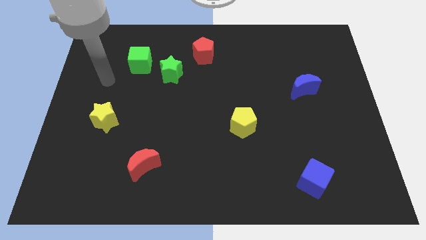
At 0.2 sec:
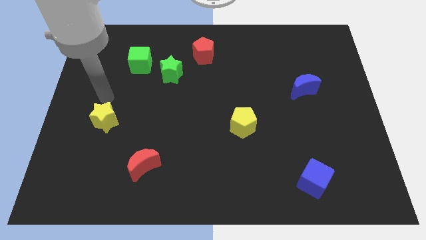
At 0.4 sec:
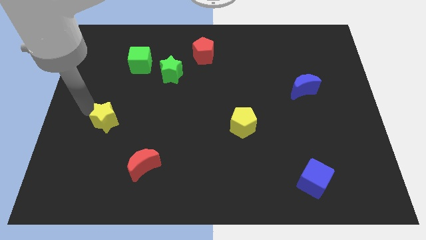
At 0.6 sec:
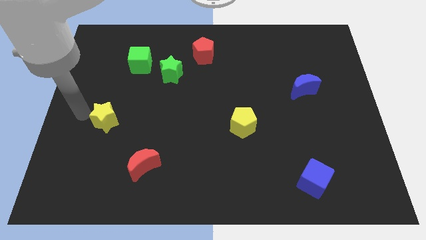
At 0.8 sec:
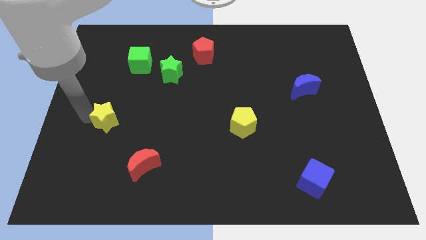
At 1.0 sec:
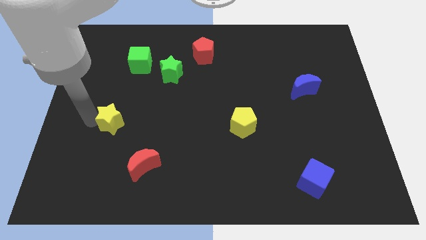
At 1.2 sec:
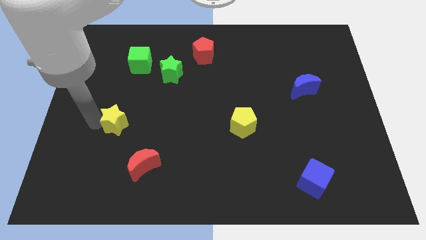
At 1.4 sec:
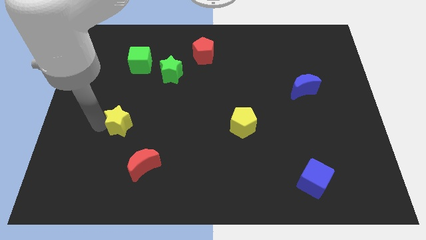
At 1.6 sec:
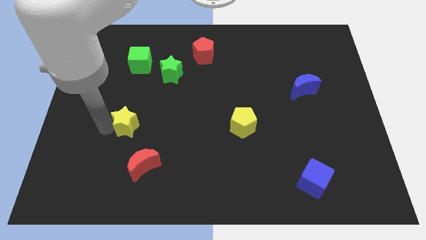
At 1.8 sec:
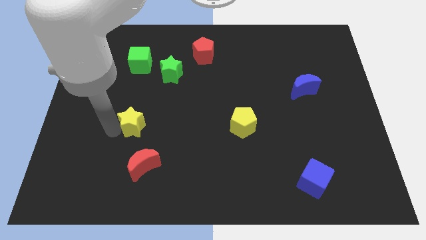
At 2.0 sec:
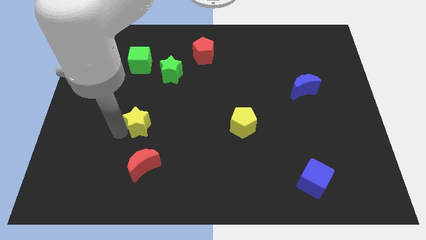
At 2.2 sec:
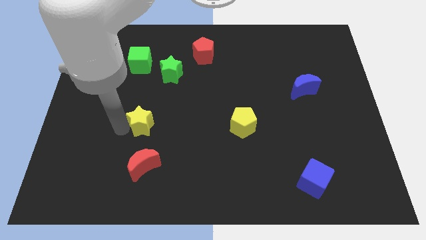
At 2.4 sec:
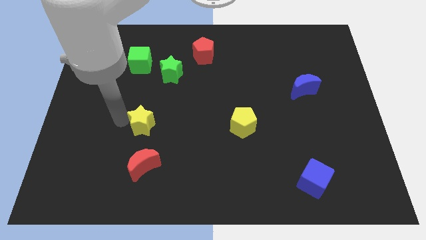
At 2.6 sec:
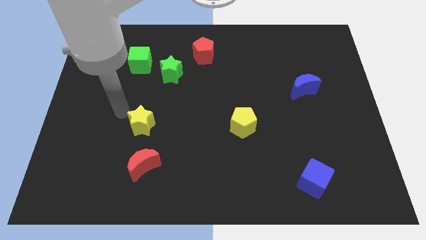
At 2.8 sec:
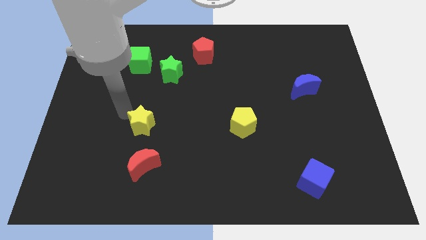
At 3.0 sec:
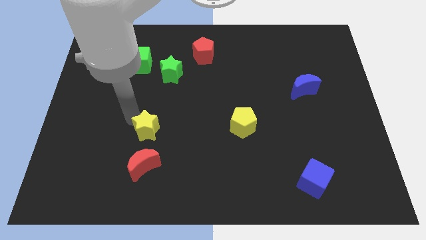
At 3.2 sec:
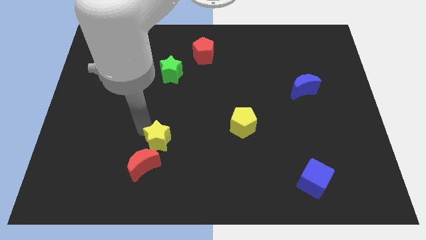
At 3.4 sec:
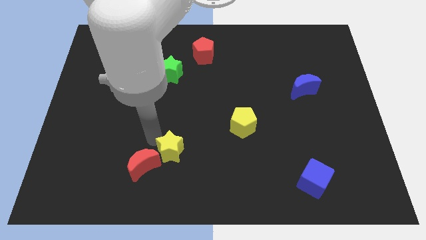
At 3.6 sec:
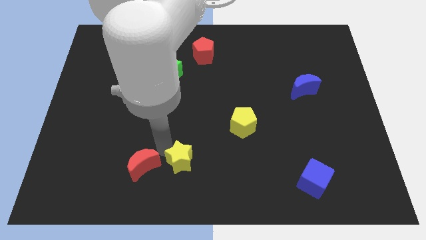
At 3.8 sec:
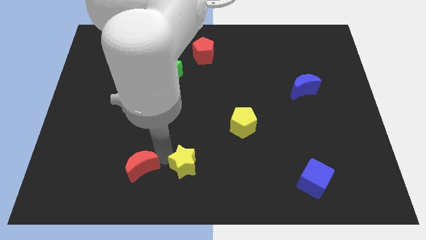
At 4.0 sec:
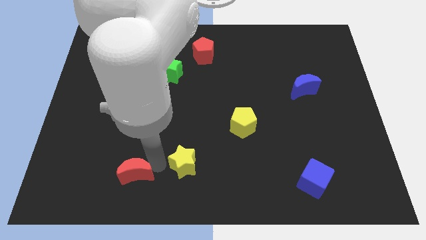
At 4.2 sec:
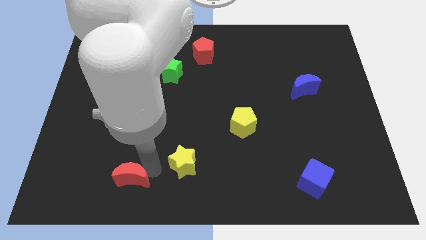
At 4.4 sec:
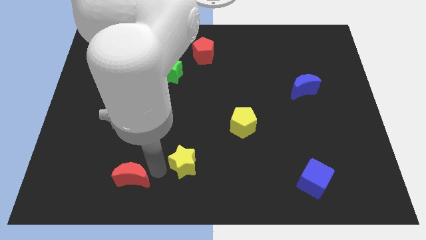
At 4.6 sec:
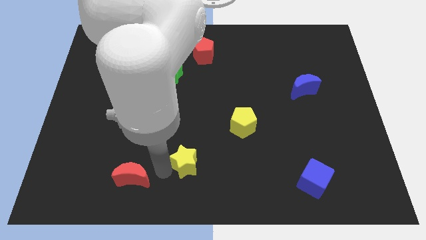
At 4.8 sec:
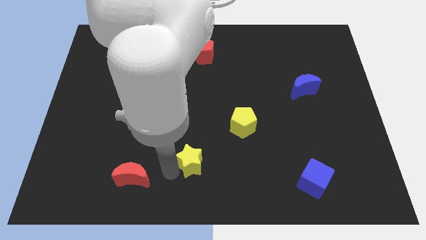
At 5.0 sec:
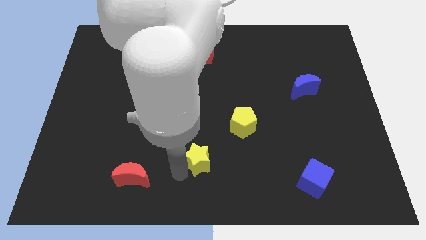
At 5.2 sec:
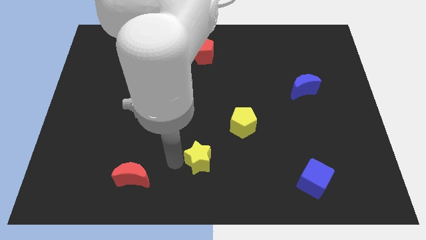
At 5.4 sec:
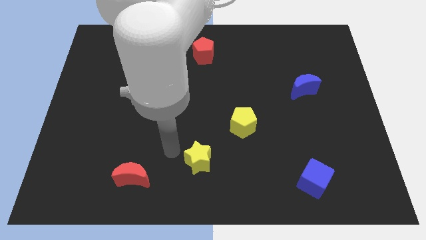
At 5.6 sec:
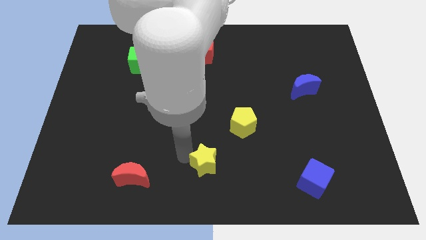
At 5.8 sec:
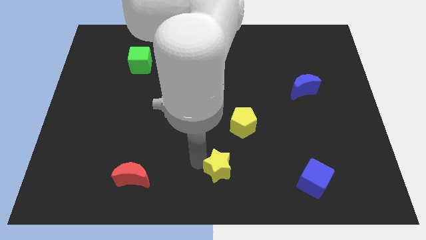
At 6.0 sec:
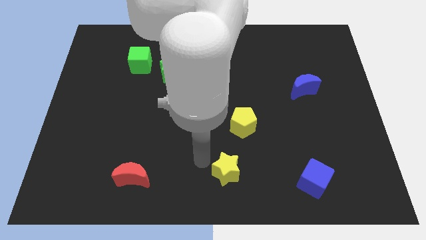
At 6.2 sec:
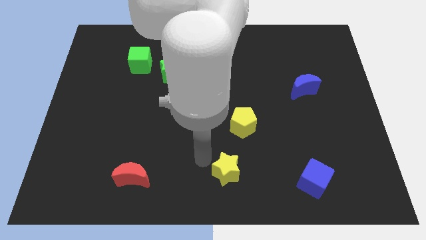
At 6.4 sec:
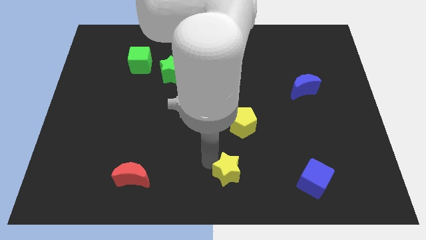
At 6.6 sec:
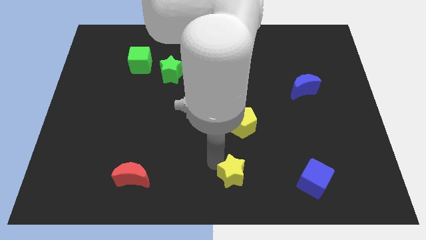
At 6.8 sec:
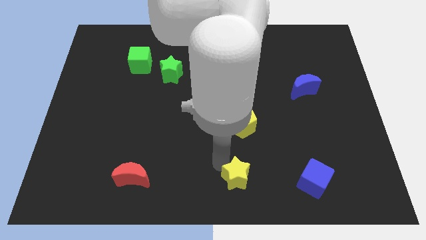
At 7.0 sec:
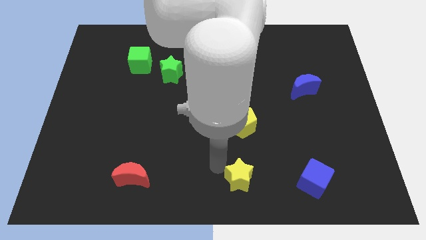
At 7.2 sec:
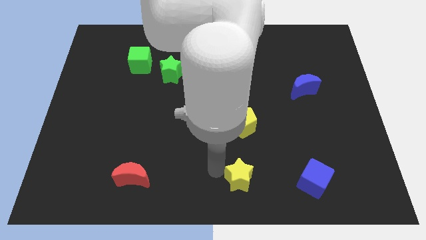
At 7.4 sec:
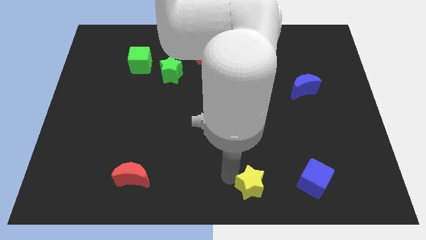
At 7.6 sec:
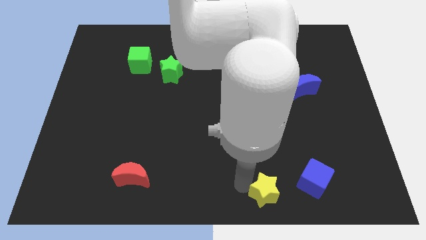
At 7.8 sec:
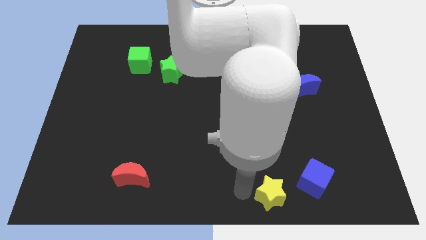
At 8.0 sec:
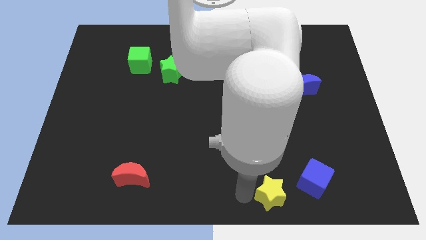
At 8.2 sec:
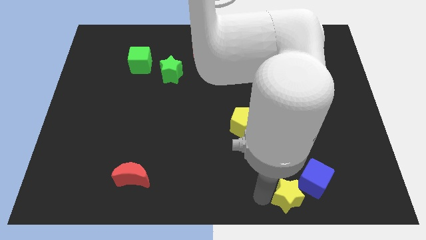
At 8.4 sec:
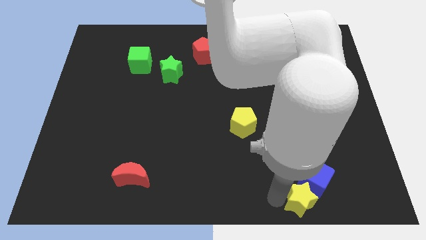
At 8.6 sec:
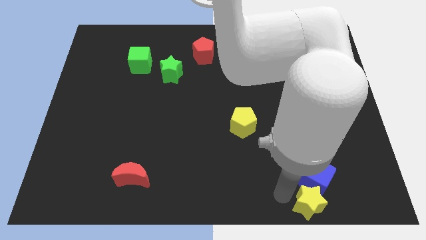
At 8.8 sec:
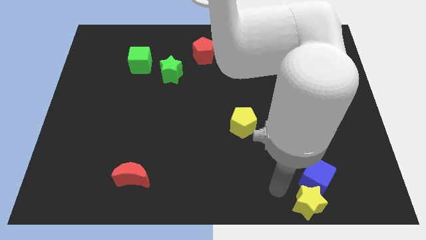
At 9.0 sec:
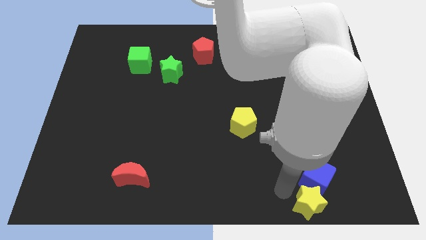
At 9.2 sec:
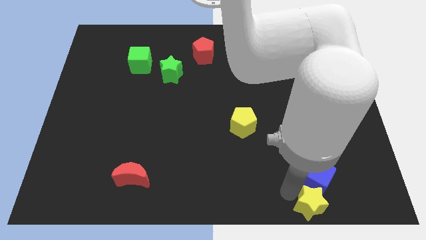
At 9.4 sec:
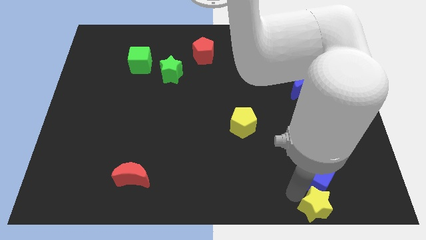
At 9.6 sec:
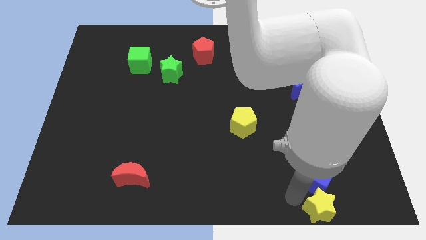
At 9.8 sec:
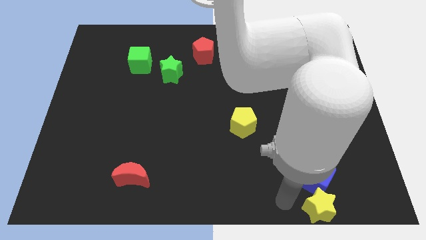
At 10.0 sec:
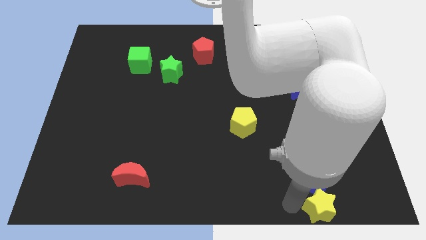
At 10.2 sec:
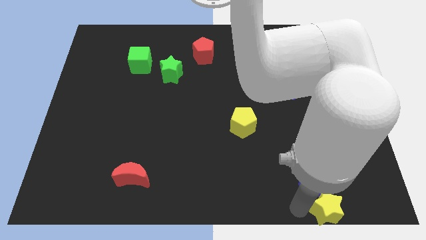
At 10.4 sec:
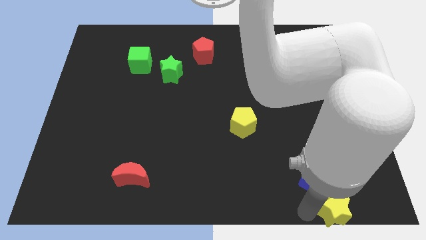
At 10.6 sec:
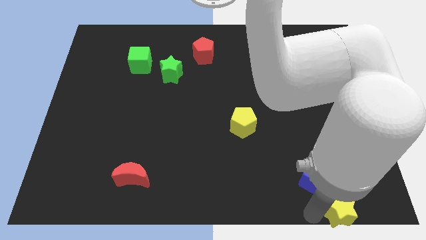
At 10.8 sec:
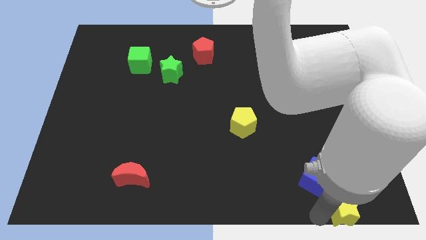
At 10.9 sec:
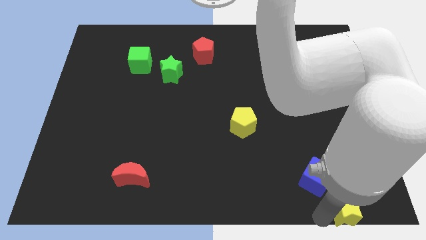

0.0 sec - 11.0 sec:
slide the yellow star to the bottom right

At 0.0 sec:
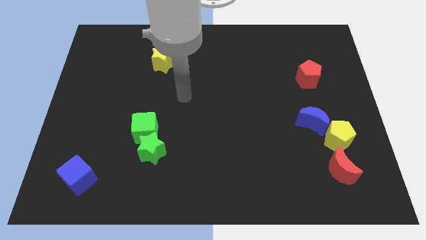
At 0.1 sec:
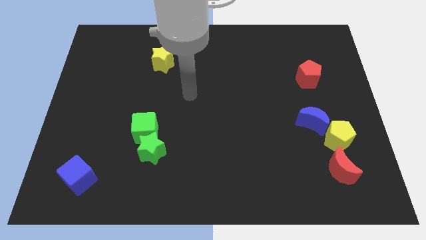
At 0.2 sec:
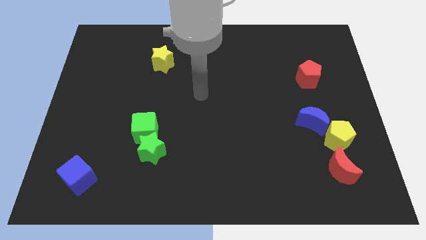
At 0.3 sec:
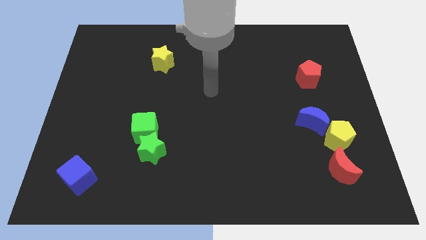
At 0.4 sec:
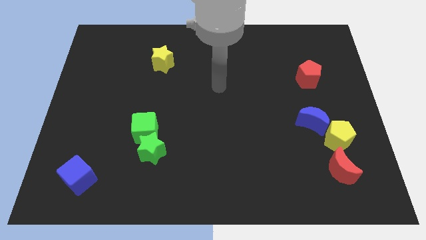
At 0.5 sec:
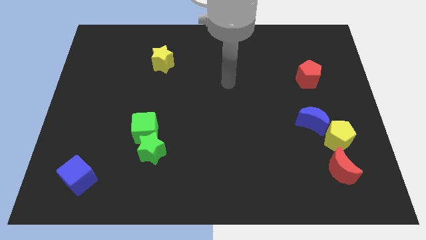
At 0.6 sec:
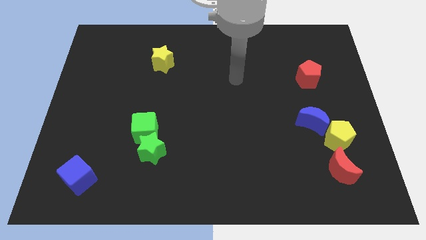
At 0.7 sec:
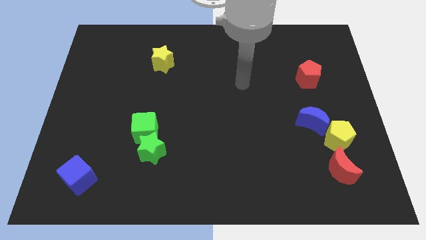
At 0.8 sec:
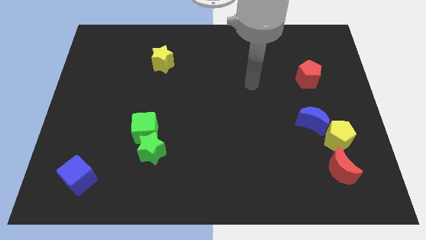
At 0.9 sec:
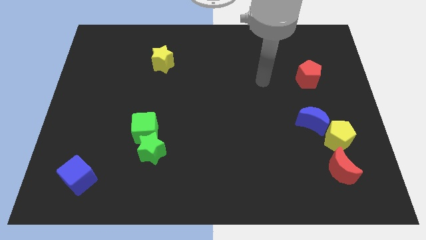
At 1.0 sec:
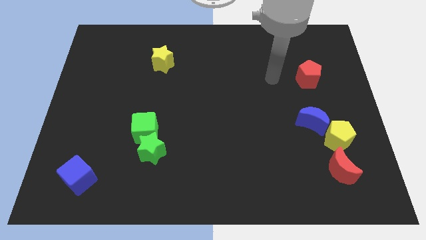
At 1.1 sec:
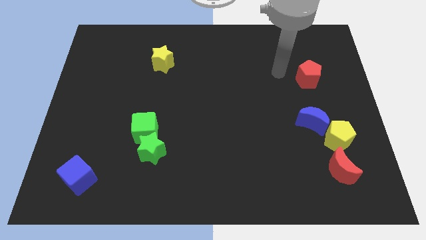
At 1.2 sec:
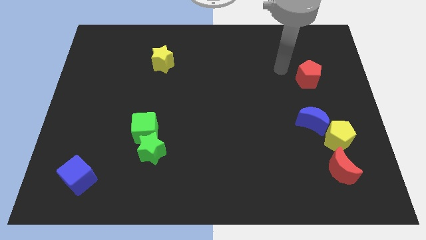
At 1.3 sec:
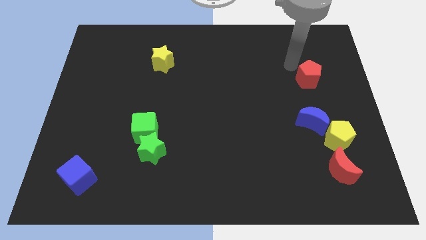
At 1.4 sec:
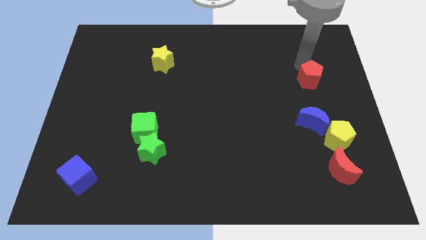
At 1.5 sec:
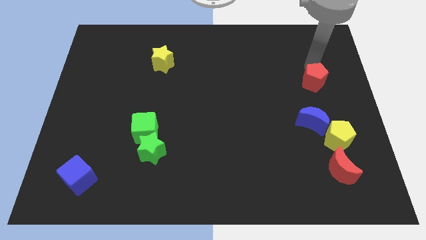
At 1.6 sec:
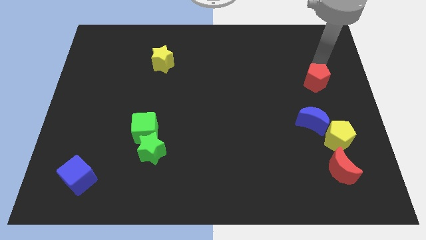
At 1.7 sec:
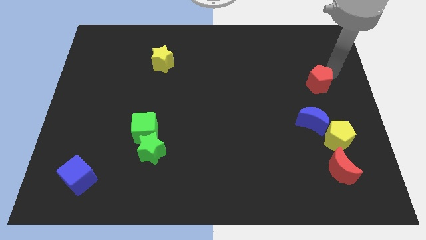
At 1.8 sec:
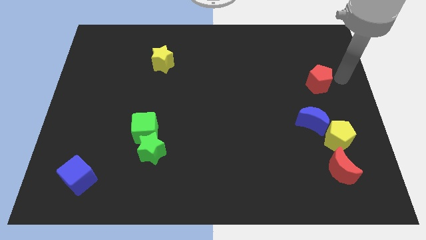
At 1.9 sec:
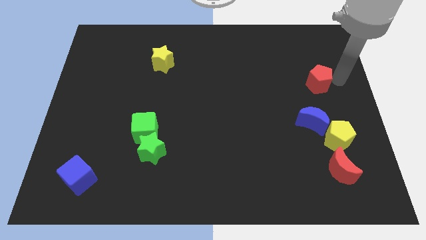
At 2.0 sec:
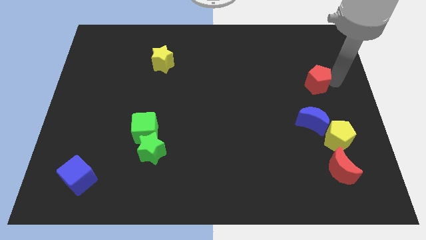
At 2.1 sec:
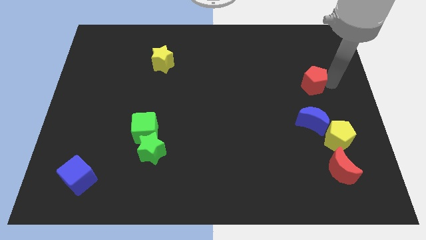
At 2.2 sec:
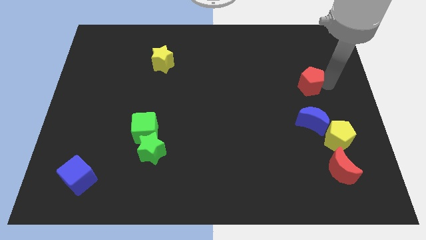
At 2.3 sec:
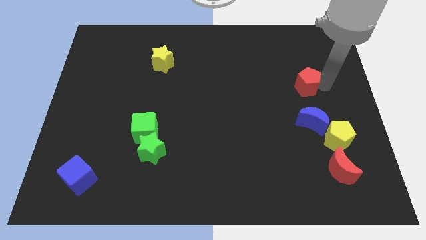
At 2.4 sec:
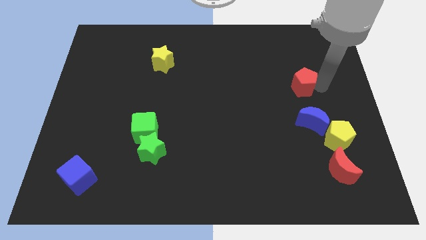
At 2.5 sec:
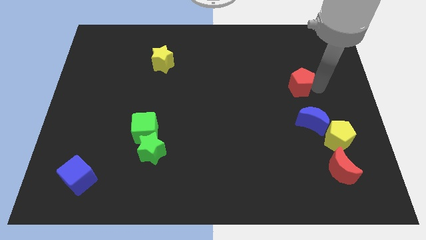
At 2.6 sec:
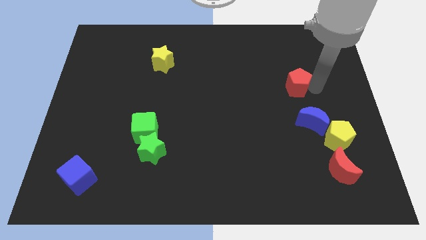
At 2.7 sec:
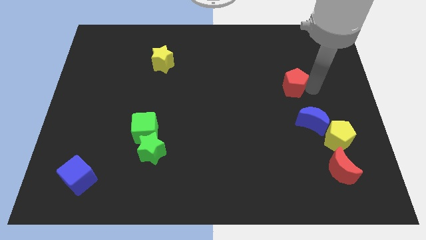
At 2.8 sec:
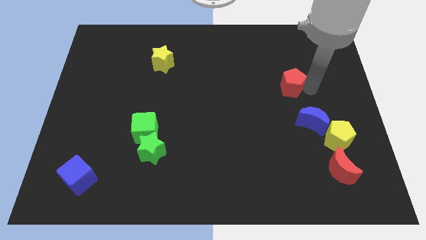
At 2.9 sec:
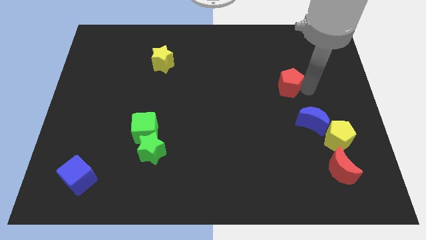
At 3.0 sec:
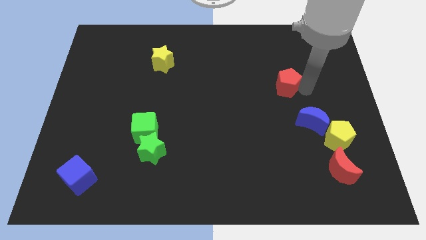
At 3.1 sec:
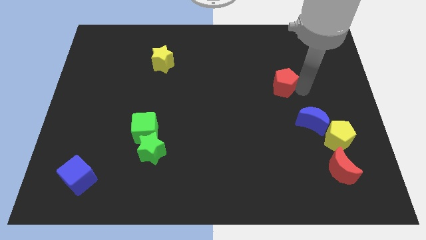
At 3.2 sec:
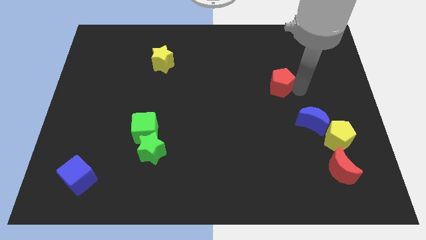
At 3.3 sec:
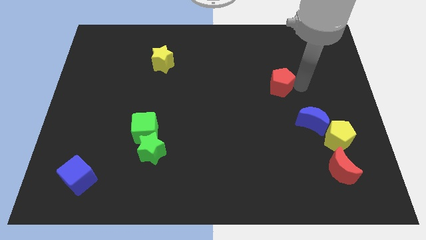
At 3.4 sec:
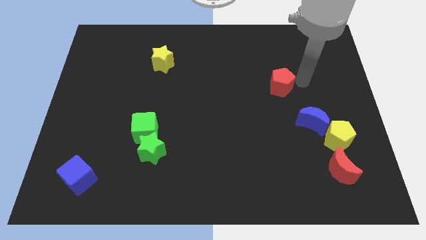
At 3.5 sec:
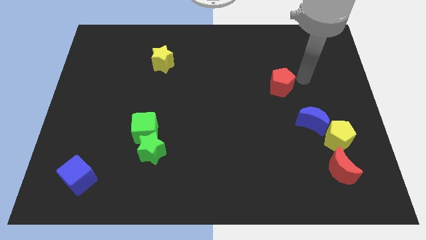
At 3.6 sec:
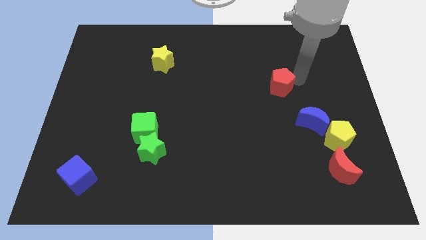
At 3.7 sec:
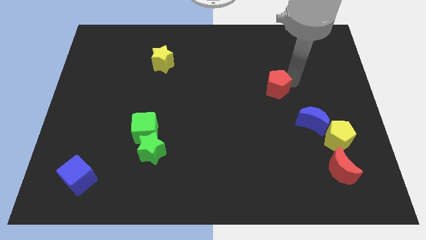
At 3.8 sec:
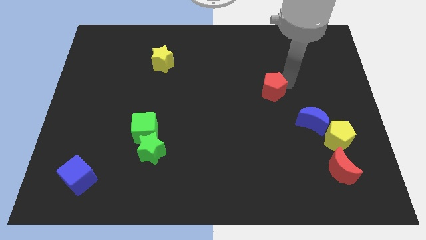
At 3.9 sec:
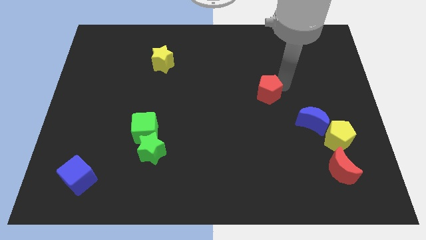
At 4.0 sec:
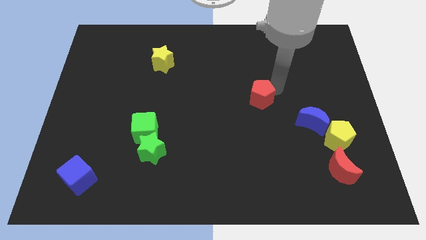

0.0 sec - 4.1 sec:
slide the red pentagon to the center
